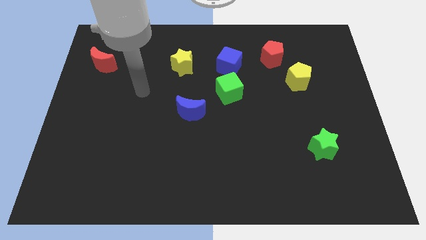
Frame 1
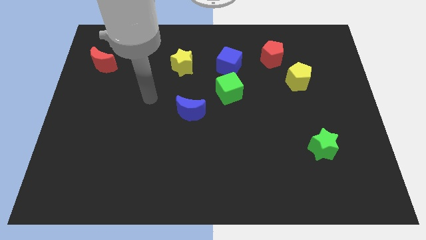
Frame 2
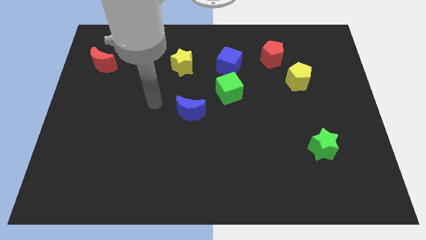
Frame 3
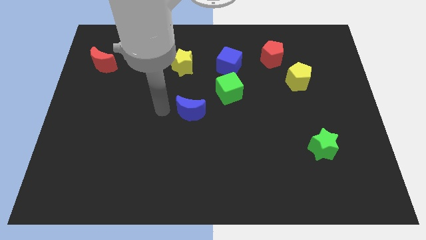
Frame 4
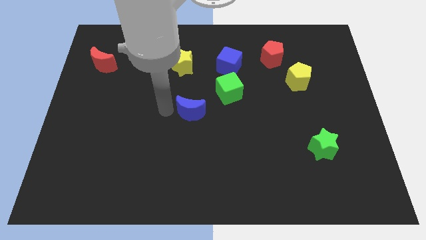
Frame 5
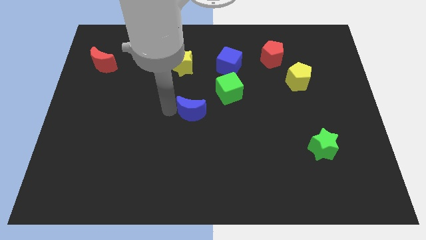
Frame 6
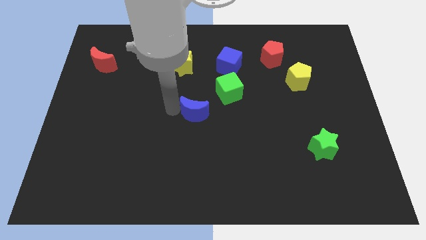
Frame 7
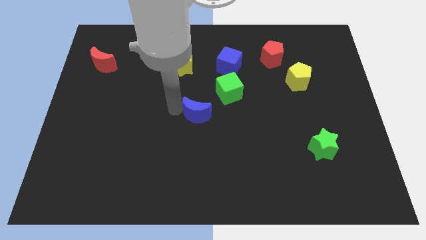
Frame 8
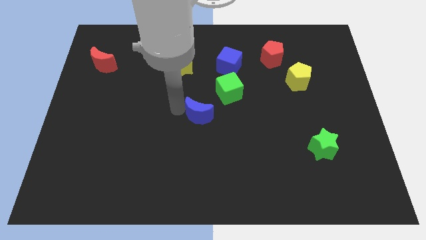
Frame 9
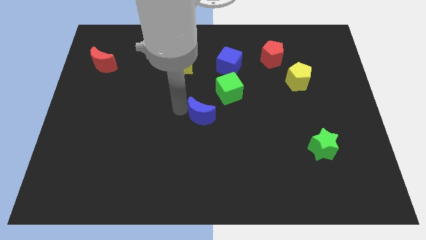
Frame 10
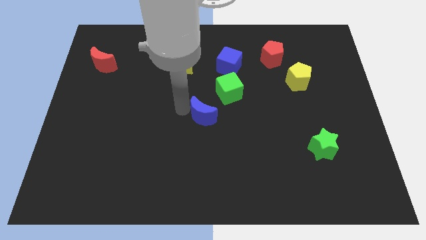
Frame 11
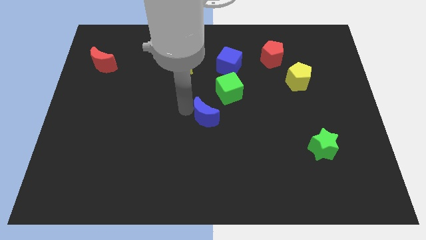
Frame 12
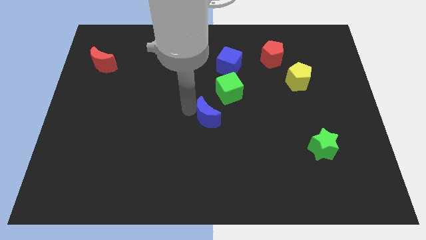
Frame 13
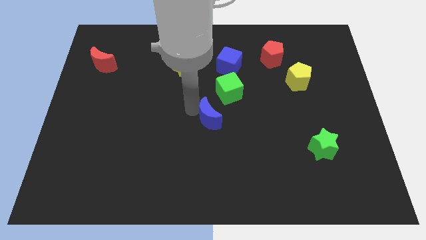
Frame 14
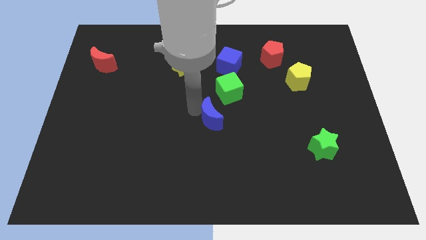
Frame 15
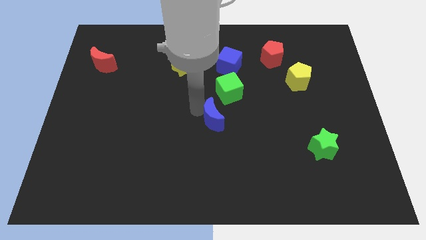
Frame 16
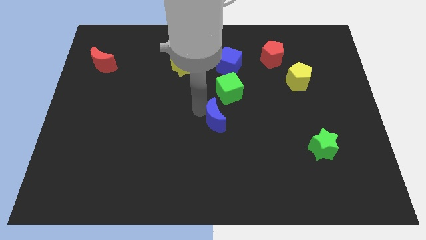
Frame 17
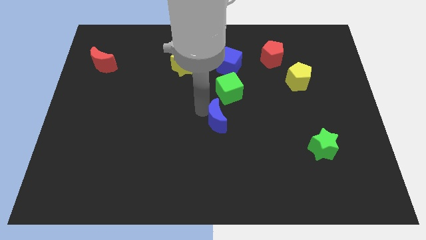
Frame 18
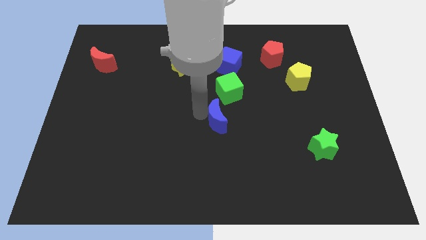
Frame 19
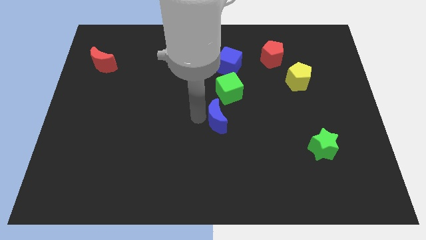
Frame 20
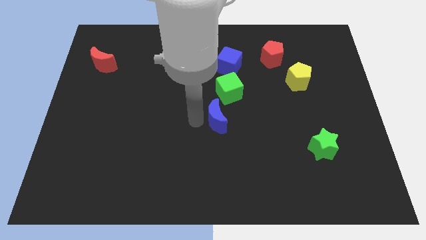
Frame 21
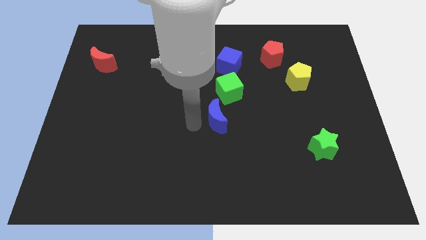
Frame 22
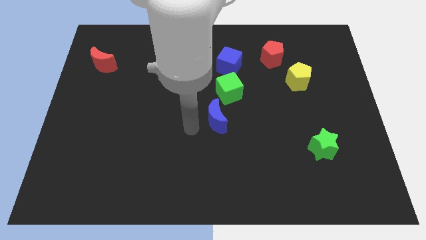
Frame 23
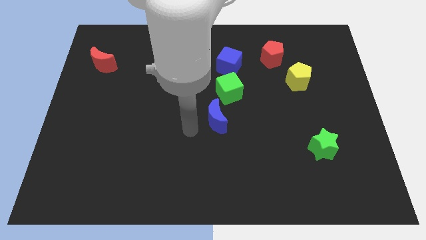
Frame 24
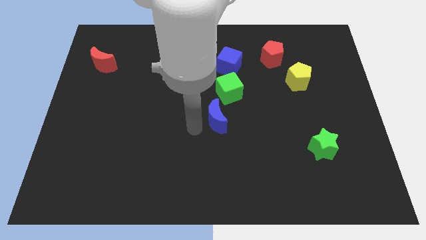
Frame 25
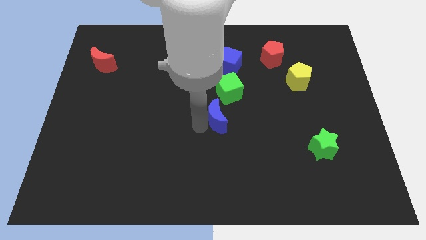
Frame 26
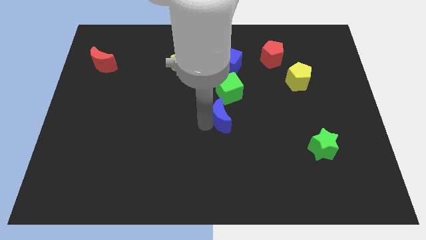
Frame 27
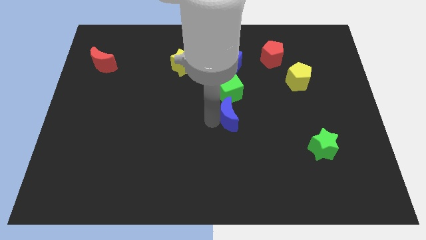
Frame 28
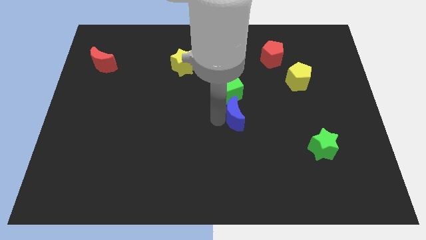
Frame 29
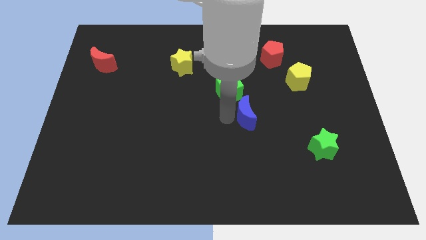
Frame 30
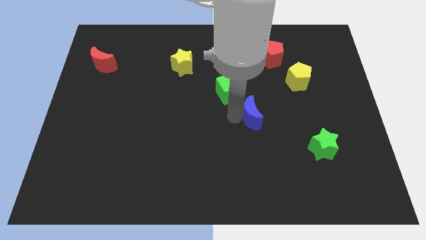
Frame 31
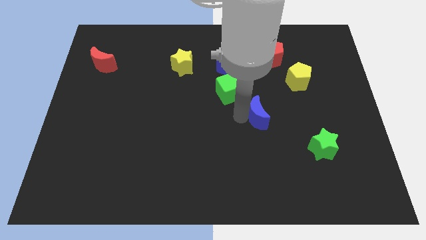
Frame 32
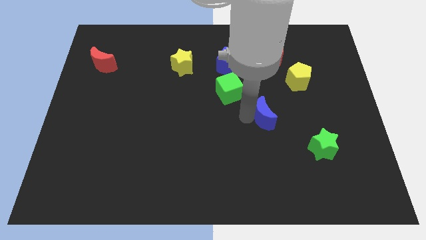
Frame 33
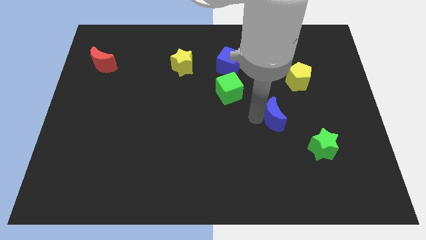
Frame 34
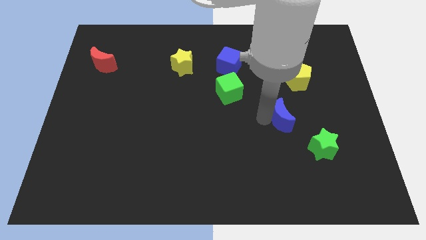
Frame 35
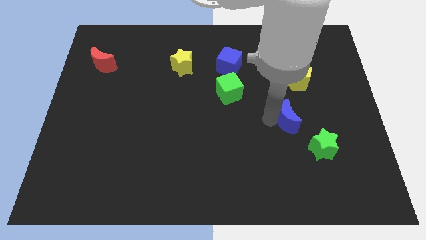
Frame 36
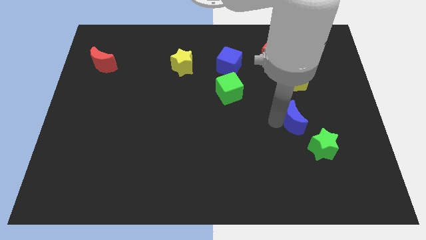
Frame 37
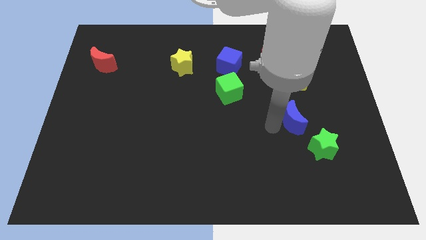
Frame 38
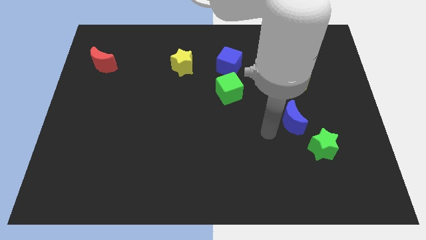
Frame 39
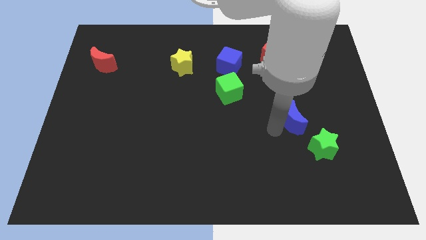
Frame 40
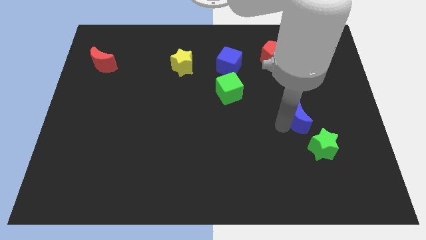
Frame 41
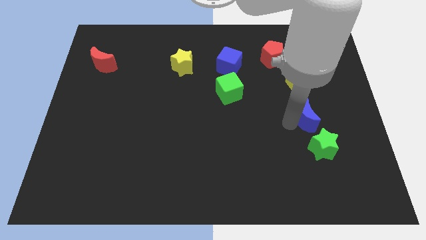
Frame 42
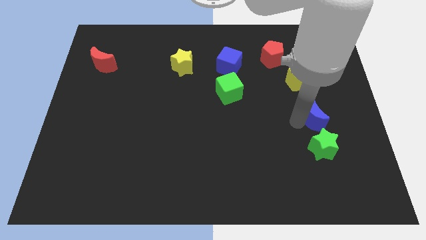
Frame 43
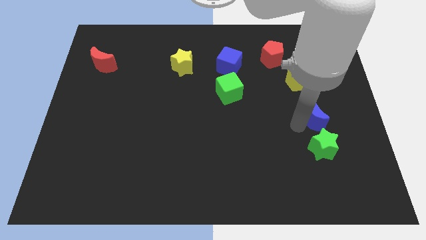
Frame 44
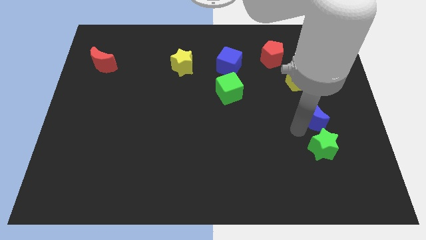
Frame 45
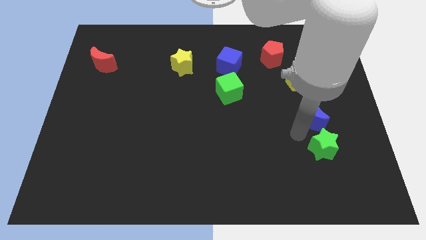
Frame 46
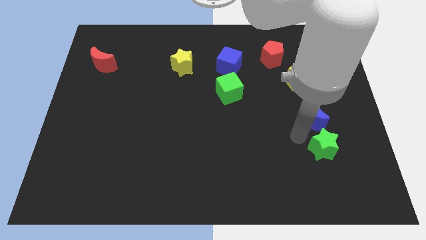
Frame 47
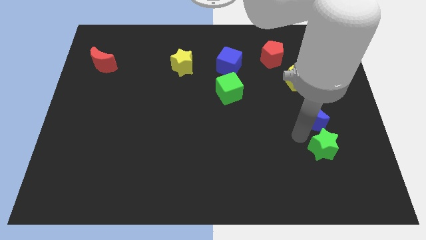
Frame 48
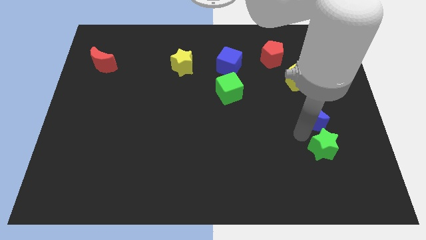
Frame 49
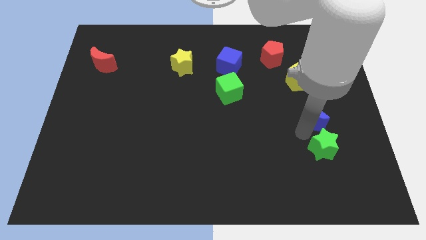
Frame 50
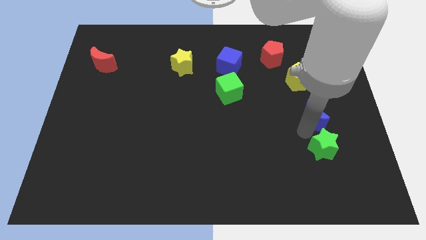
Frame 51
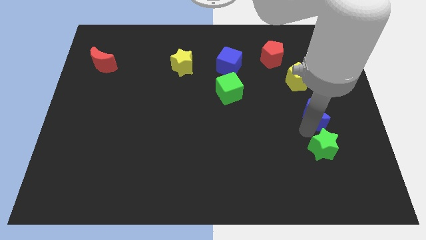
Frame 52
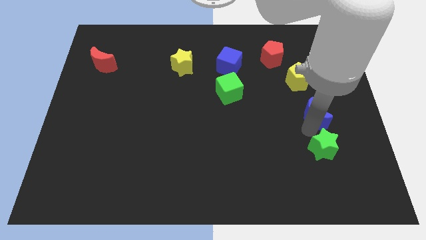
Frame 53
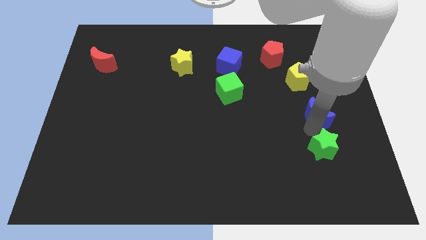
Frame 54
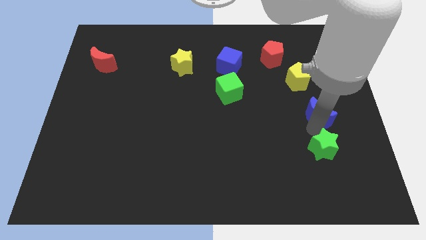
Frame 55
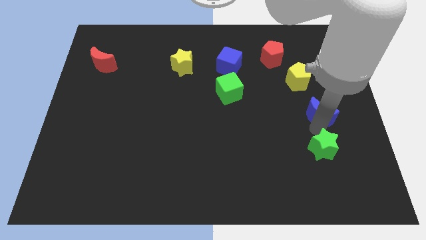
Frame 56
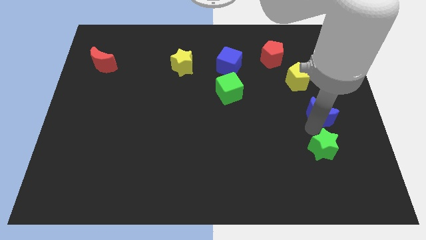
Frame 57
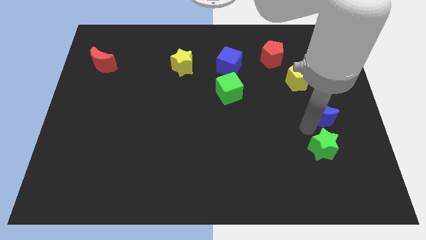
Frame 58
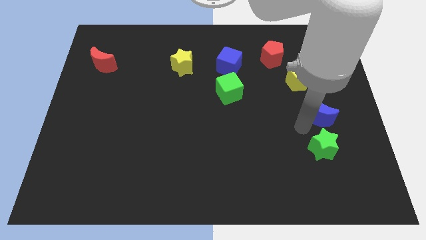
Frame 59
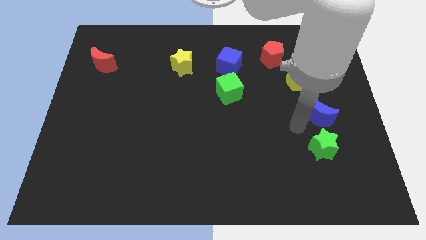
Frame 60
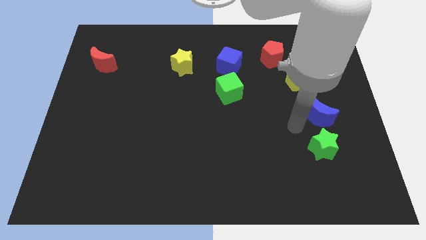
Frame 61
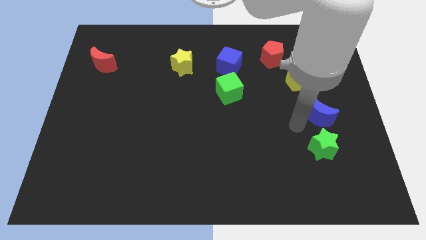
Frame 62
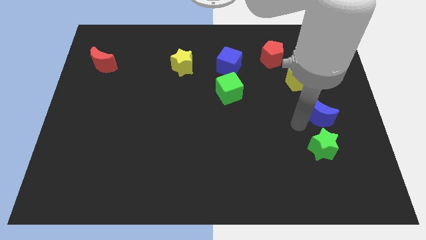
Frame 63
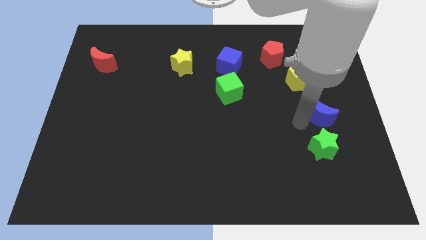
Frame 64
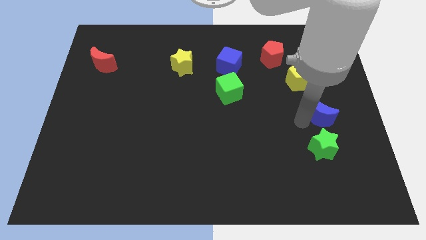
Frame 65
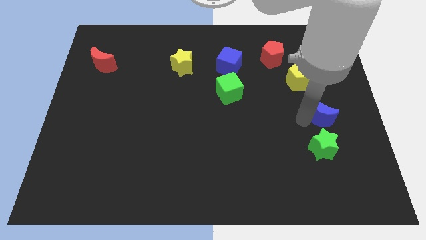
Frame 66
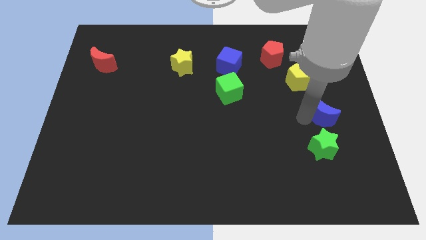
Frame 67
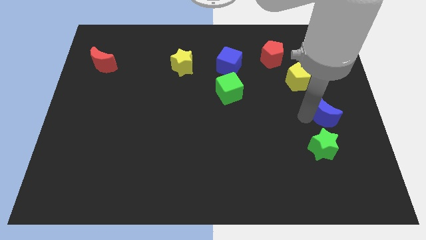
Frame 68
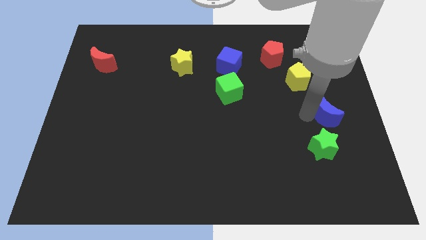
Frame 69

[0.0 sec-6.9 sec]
move the blue moon to the right side
